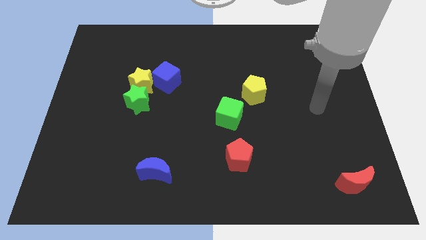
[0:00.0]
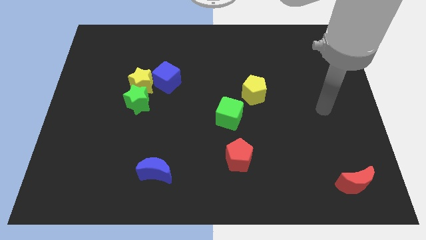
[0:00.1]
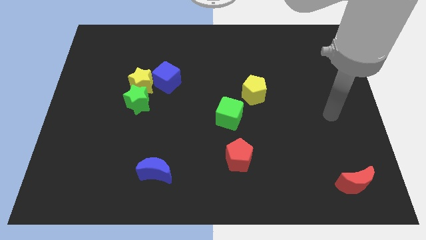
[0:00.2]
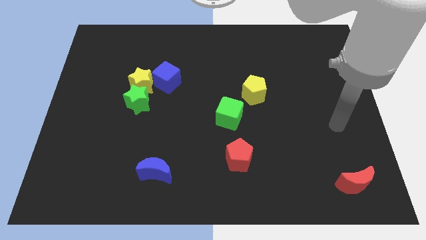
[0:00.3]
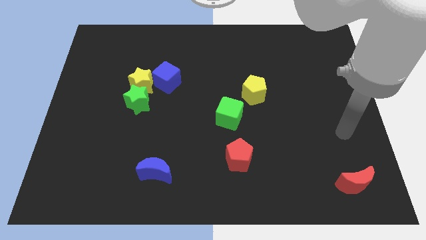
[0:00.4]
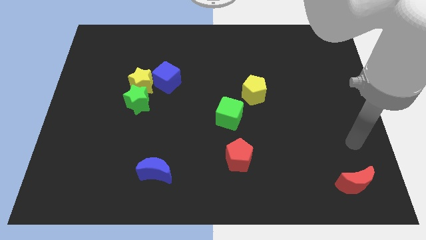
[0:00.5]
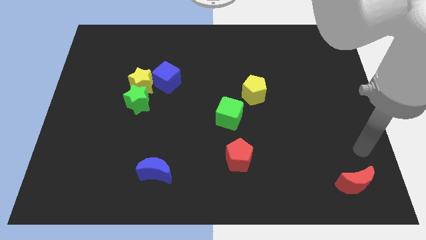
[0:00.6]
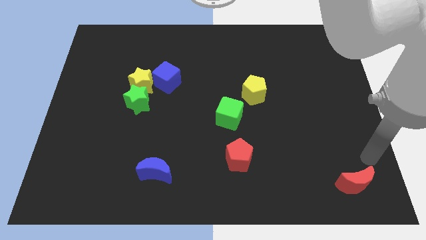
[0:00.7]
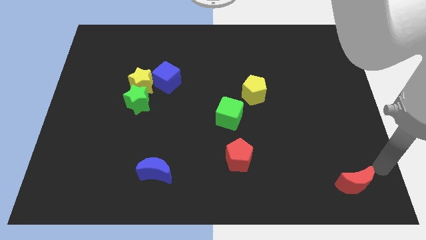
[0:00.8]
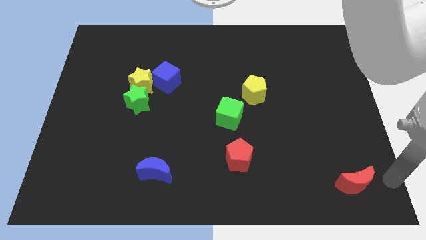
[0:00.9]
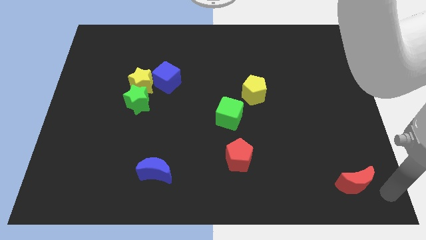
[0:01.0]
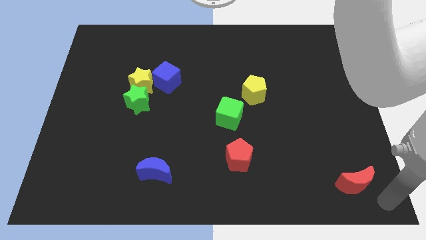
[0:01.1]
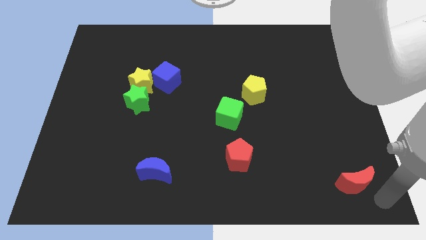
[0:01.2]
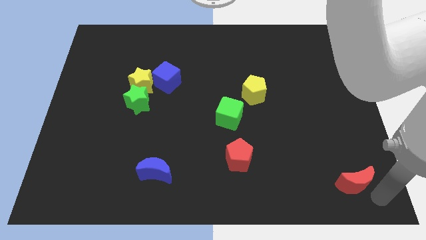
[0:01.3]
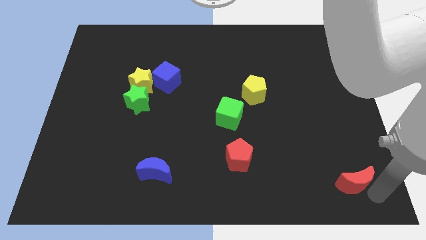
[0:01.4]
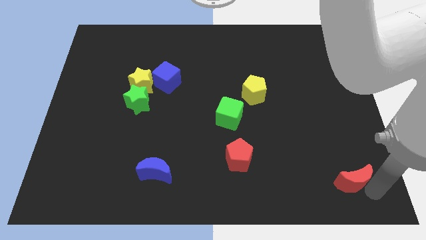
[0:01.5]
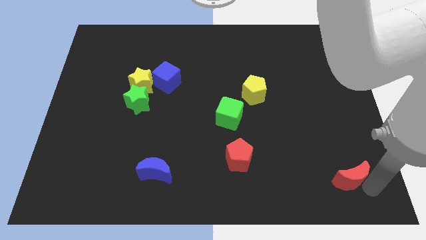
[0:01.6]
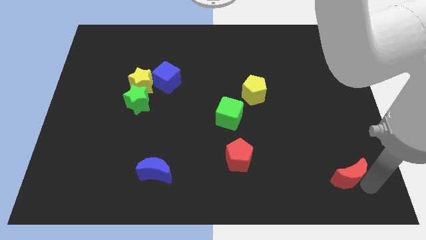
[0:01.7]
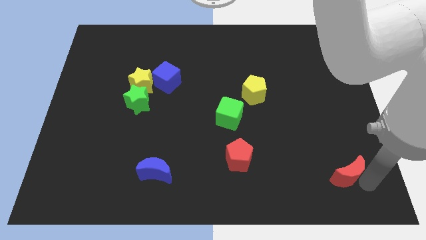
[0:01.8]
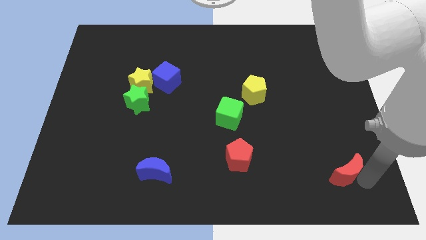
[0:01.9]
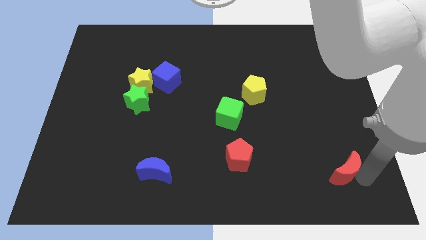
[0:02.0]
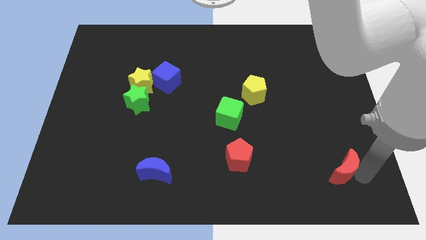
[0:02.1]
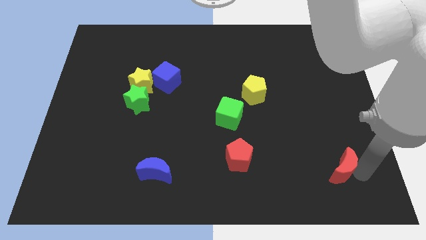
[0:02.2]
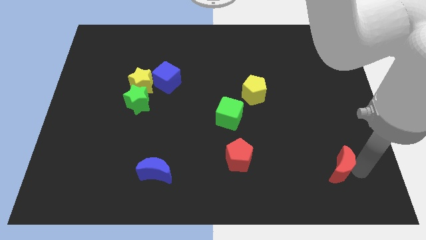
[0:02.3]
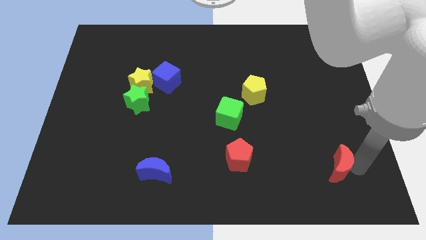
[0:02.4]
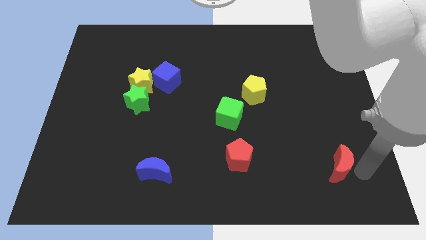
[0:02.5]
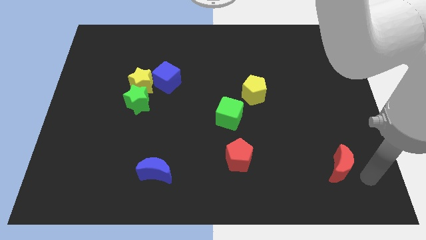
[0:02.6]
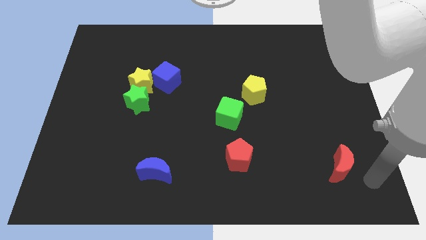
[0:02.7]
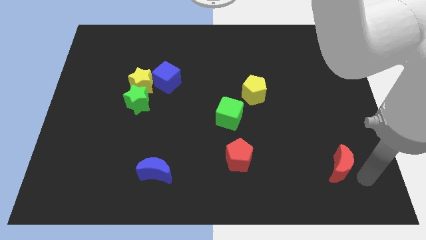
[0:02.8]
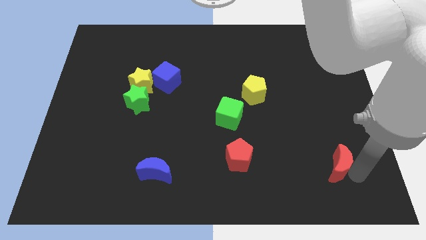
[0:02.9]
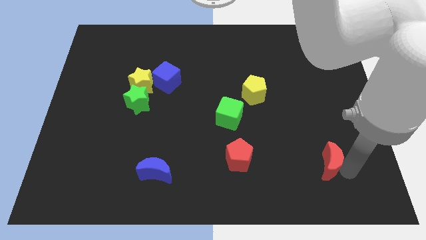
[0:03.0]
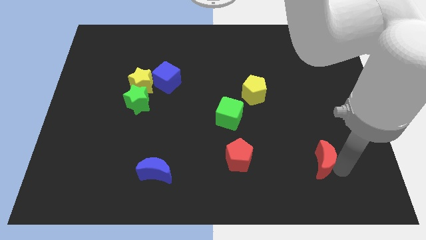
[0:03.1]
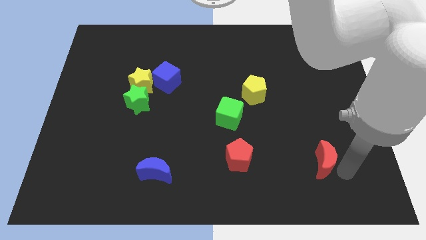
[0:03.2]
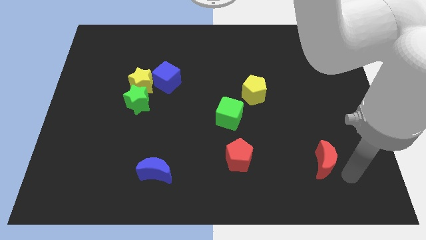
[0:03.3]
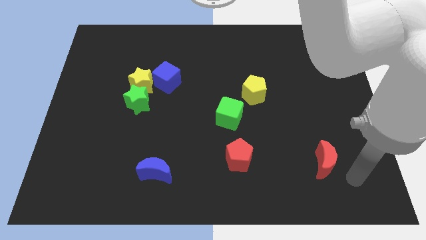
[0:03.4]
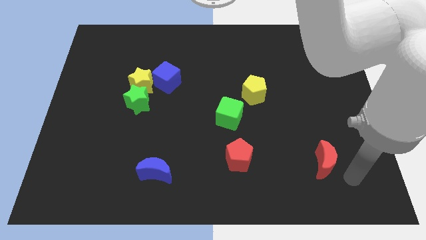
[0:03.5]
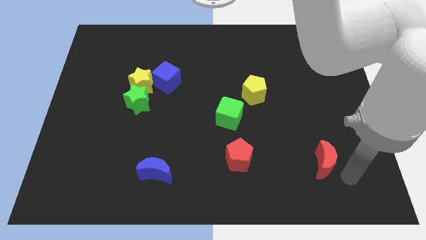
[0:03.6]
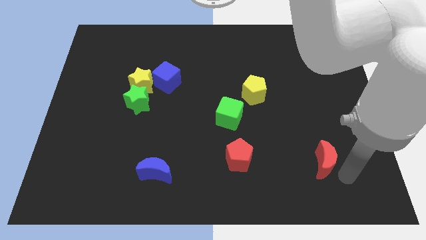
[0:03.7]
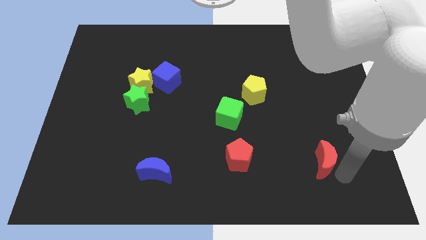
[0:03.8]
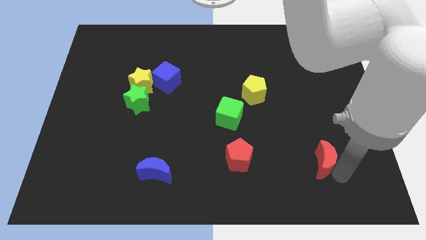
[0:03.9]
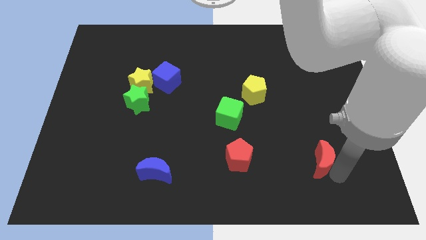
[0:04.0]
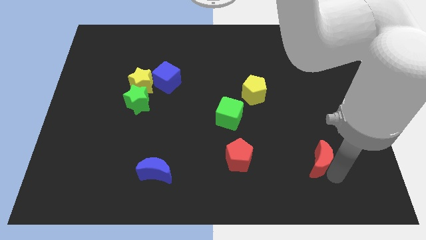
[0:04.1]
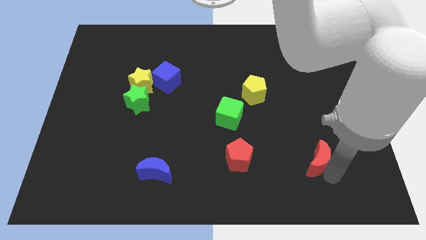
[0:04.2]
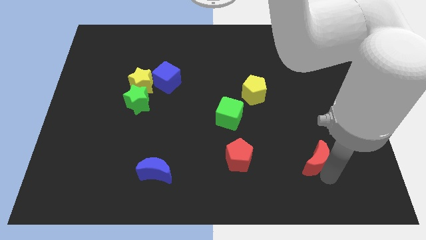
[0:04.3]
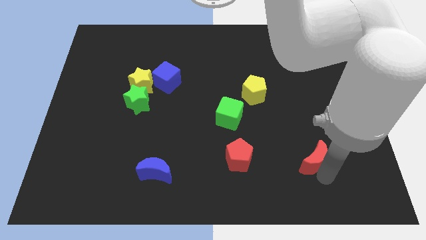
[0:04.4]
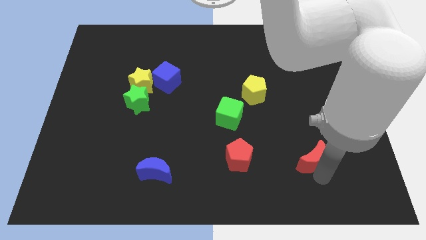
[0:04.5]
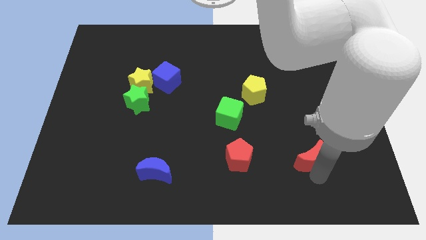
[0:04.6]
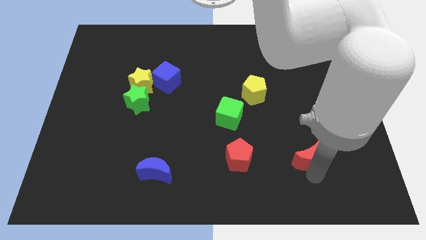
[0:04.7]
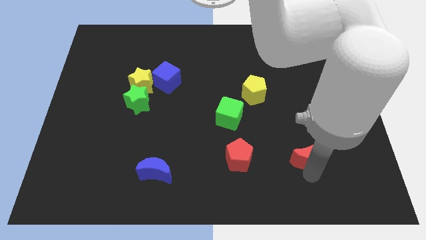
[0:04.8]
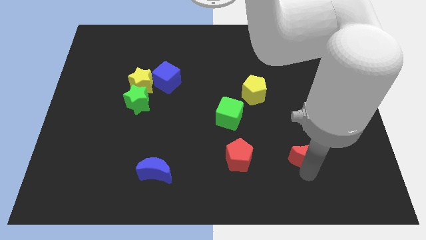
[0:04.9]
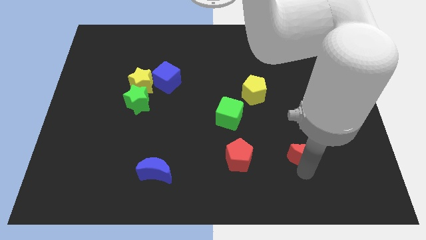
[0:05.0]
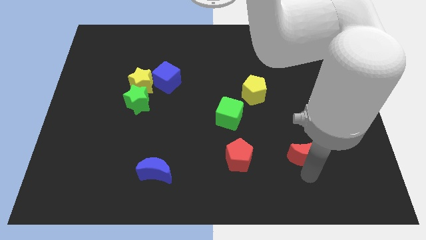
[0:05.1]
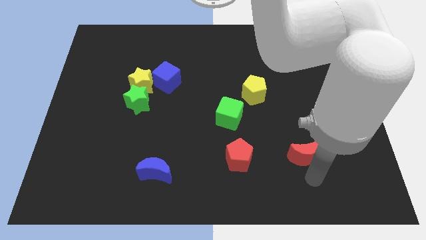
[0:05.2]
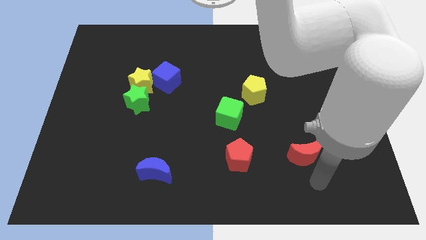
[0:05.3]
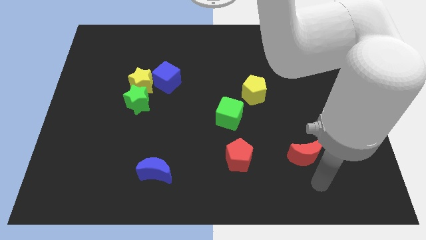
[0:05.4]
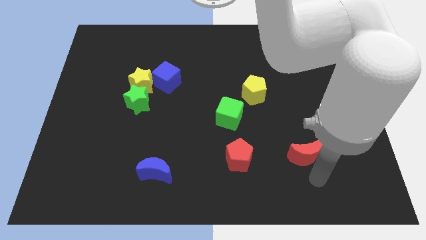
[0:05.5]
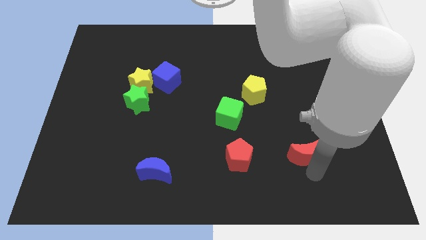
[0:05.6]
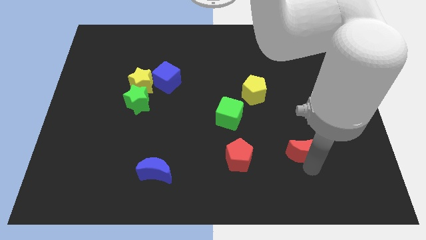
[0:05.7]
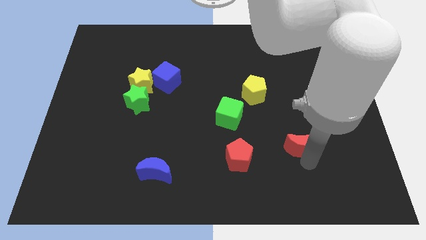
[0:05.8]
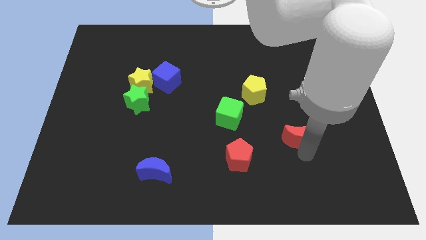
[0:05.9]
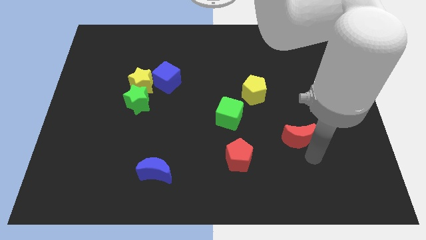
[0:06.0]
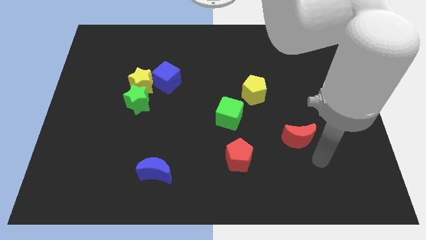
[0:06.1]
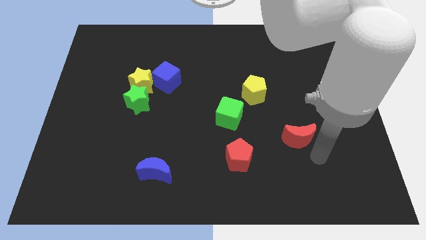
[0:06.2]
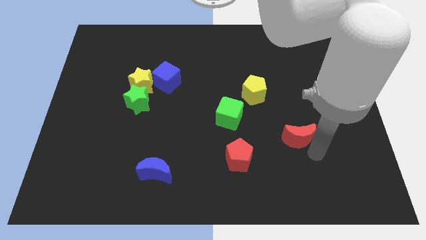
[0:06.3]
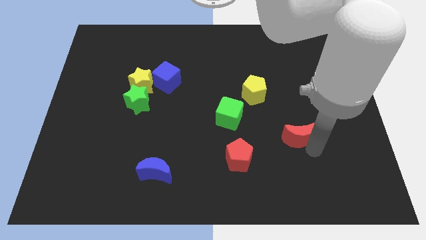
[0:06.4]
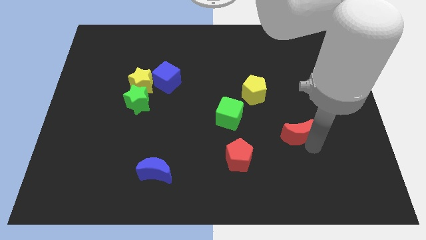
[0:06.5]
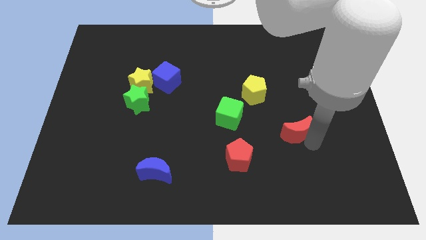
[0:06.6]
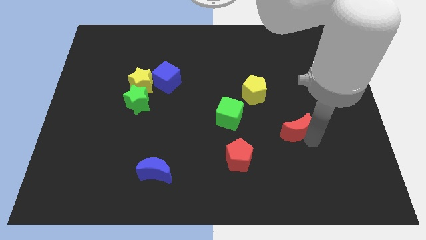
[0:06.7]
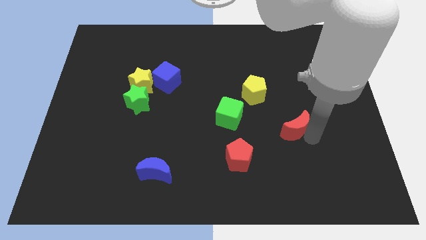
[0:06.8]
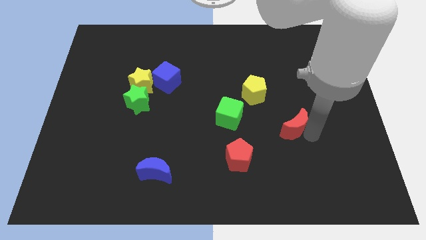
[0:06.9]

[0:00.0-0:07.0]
push the red moon to the right side of the green cube
